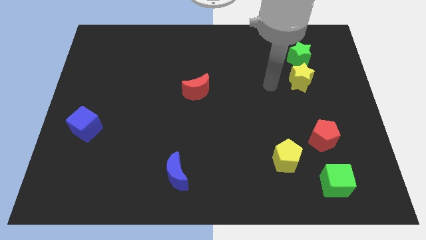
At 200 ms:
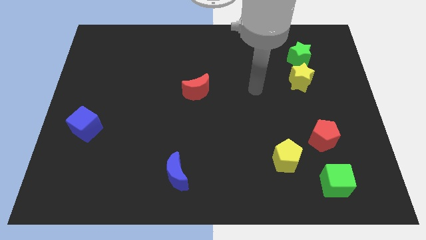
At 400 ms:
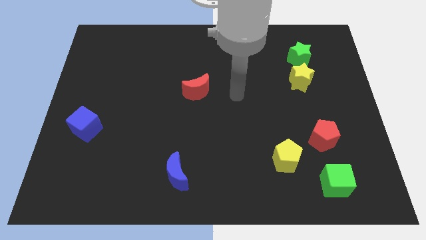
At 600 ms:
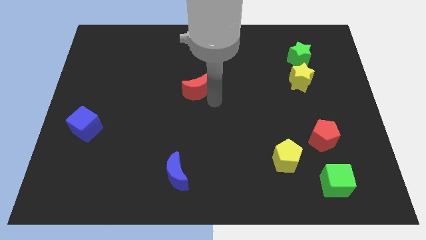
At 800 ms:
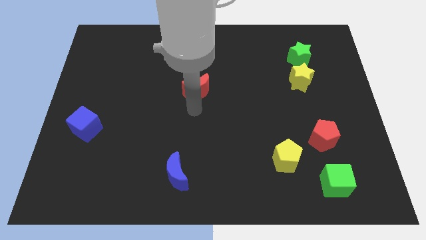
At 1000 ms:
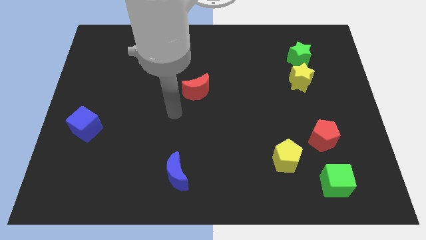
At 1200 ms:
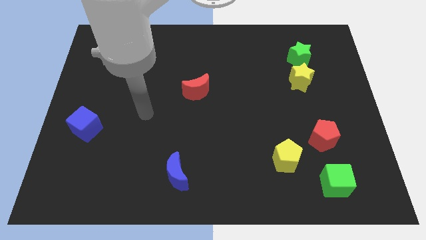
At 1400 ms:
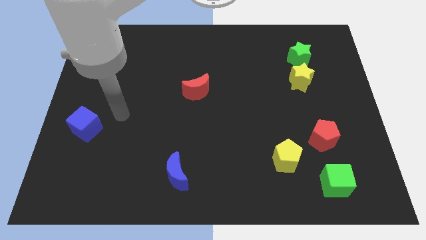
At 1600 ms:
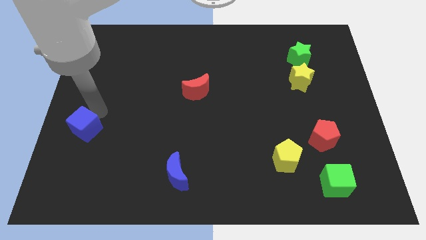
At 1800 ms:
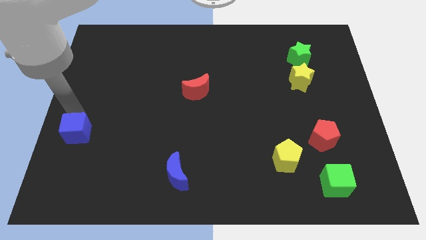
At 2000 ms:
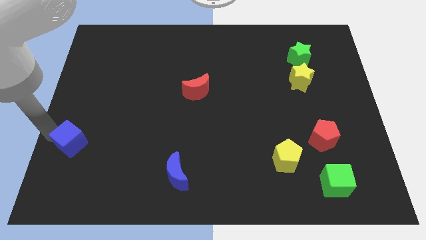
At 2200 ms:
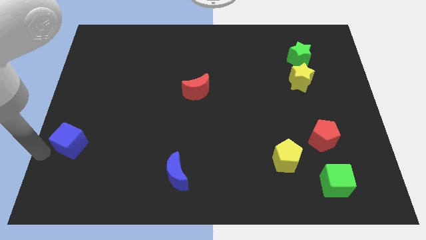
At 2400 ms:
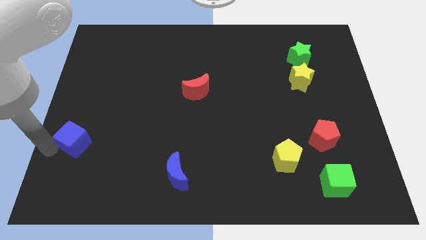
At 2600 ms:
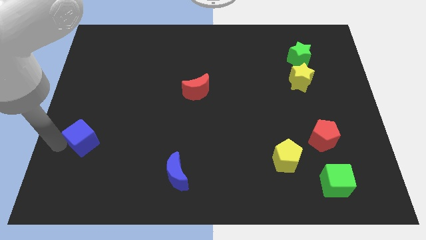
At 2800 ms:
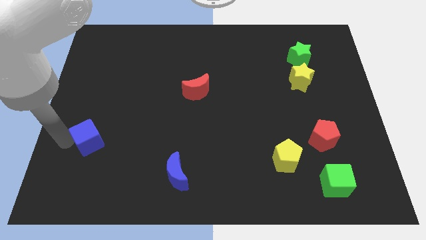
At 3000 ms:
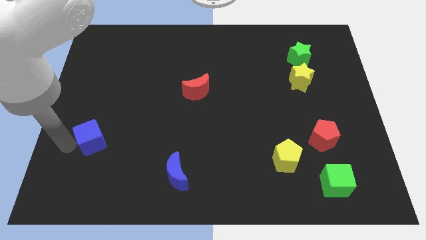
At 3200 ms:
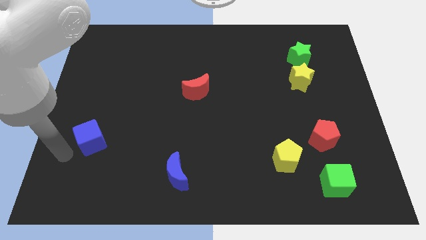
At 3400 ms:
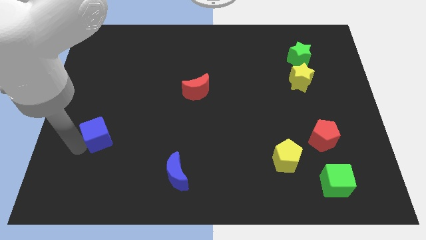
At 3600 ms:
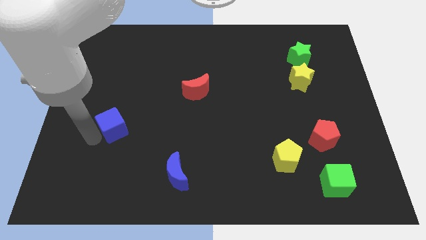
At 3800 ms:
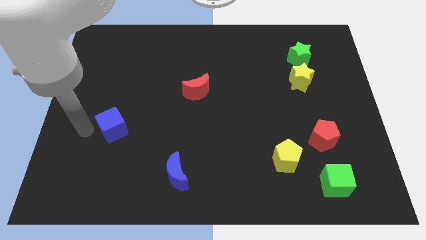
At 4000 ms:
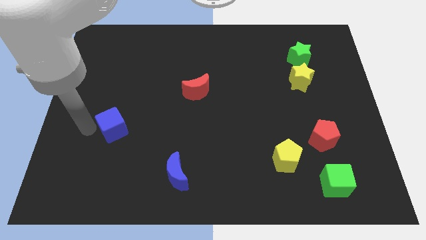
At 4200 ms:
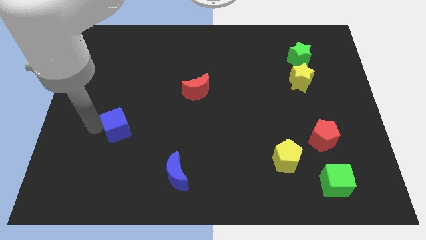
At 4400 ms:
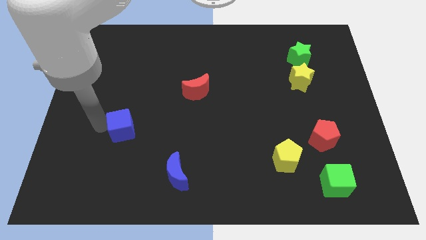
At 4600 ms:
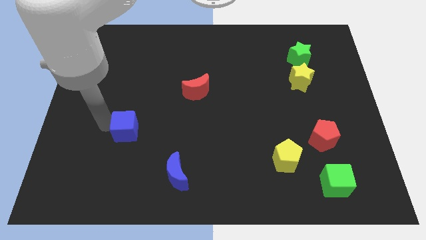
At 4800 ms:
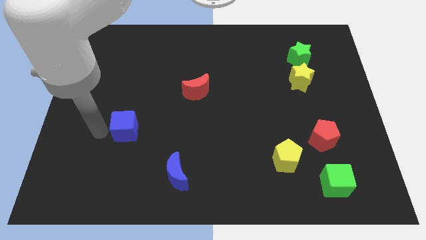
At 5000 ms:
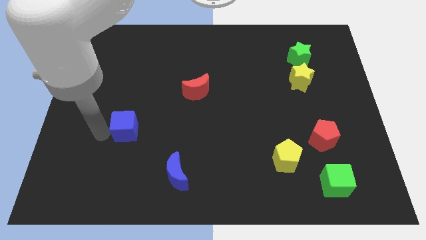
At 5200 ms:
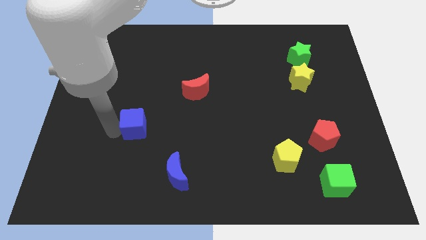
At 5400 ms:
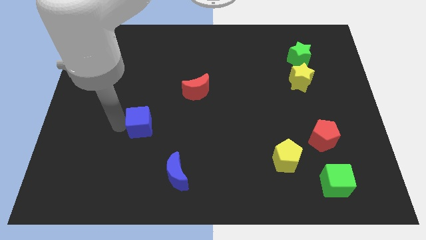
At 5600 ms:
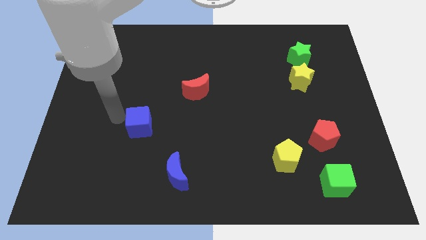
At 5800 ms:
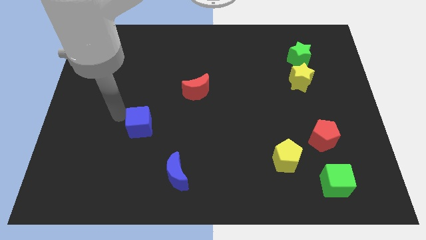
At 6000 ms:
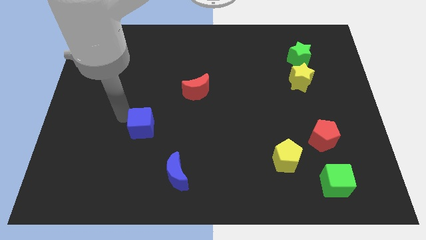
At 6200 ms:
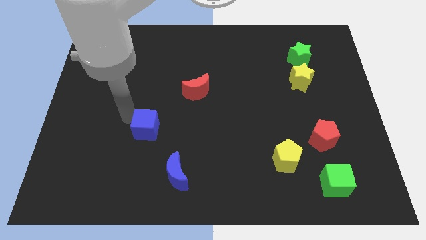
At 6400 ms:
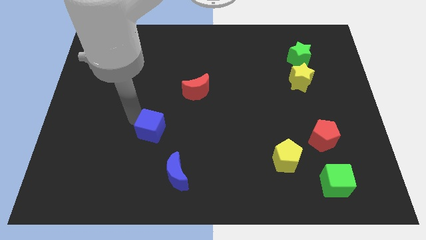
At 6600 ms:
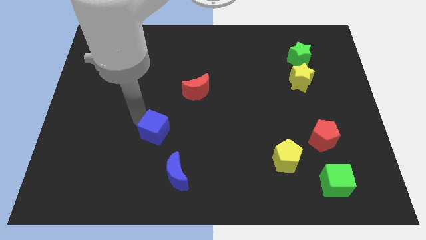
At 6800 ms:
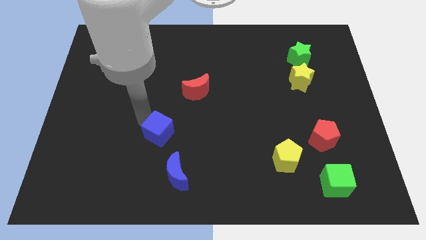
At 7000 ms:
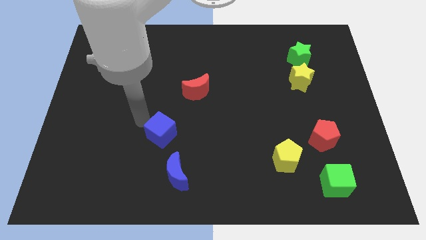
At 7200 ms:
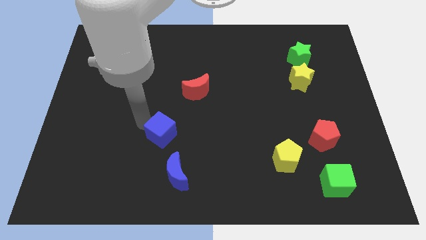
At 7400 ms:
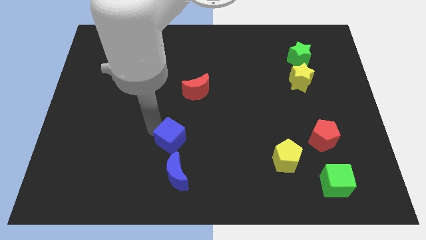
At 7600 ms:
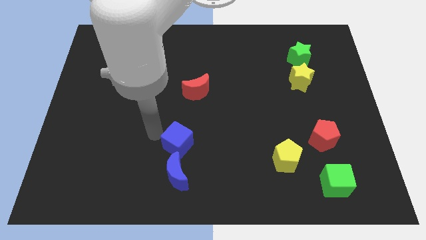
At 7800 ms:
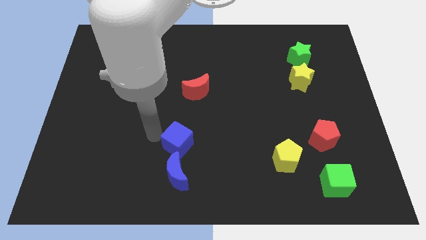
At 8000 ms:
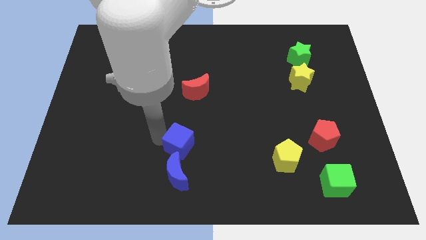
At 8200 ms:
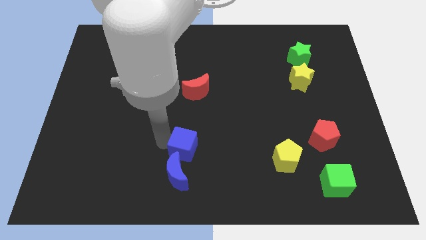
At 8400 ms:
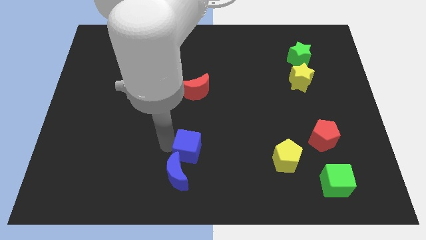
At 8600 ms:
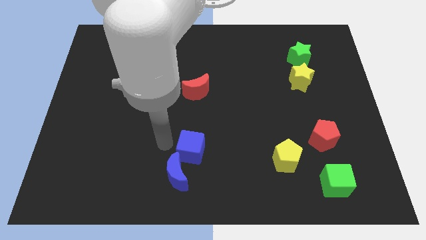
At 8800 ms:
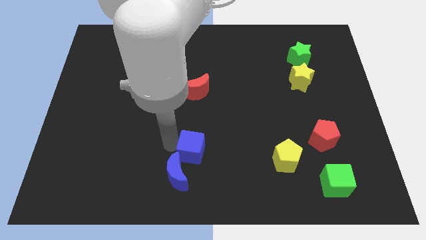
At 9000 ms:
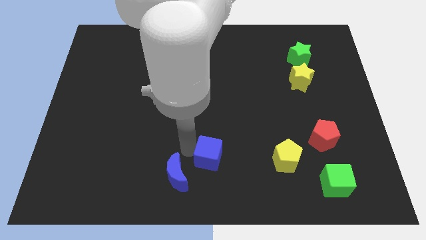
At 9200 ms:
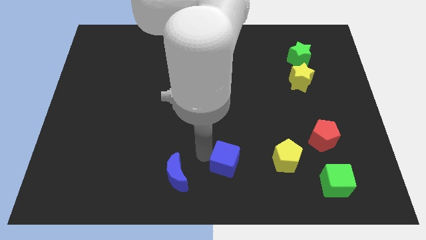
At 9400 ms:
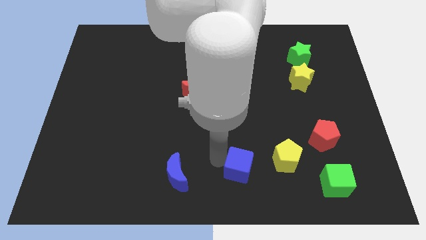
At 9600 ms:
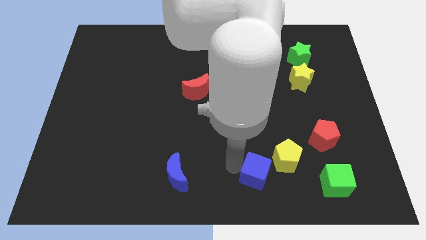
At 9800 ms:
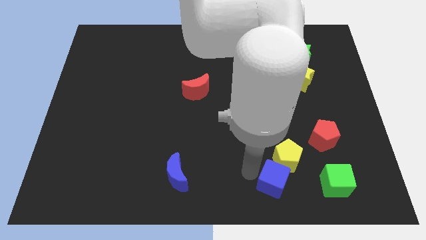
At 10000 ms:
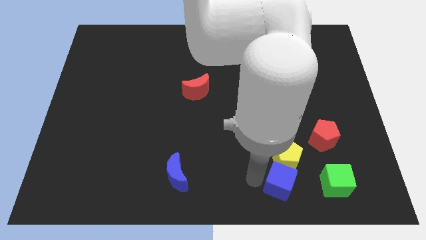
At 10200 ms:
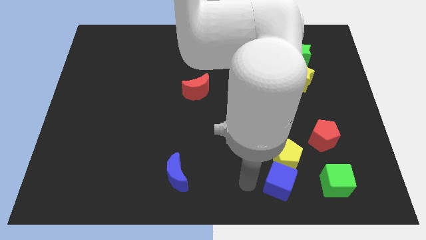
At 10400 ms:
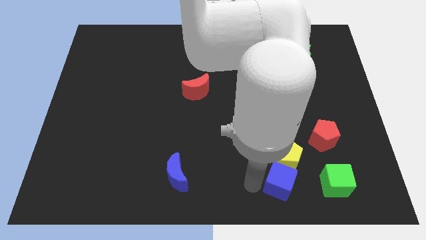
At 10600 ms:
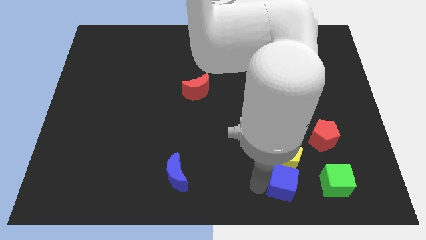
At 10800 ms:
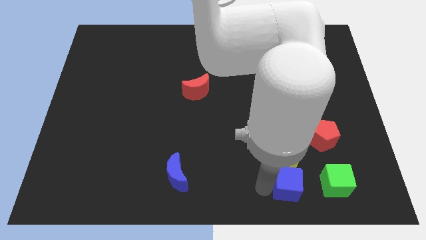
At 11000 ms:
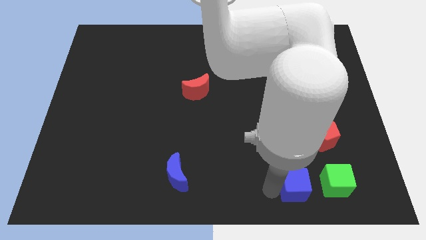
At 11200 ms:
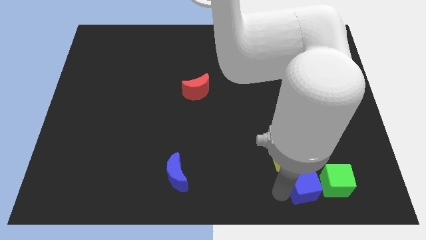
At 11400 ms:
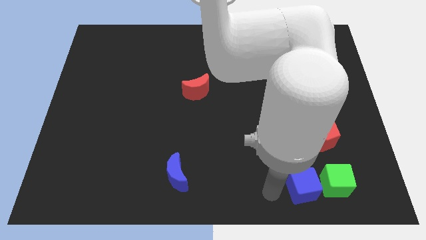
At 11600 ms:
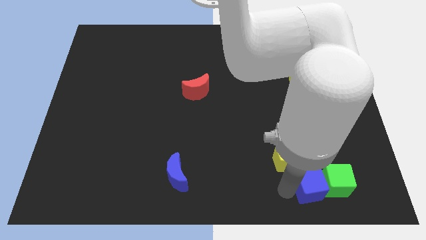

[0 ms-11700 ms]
put the blue cube next to the green cube
